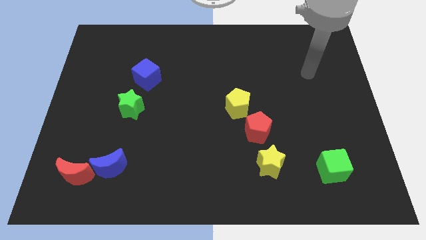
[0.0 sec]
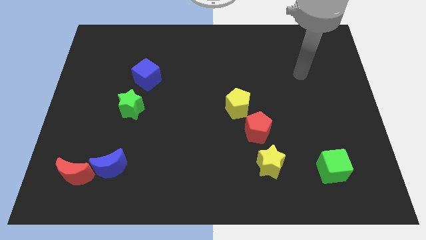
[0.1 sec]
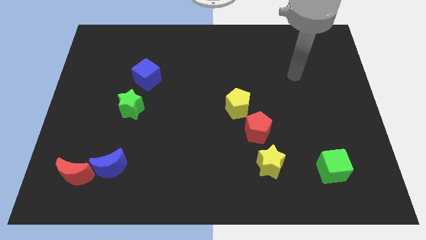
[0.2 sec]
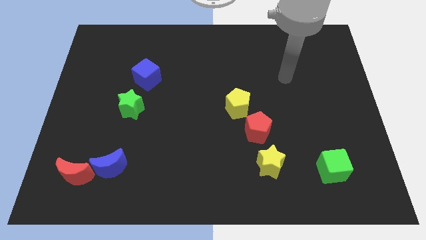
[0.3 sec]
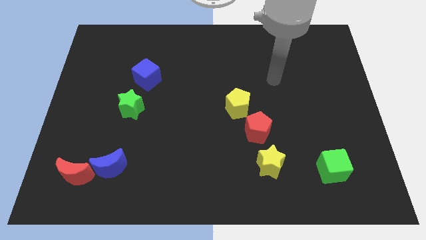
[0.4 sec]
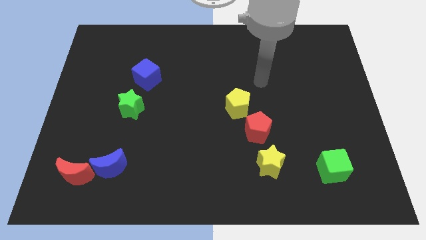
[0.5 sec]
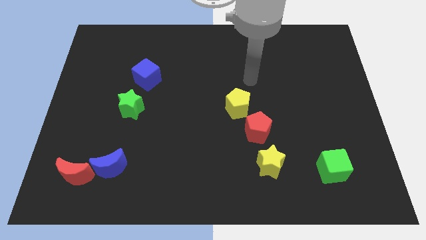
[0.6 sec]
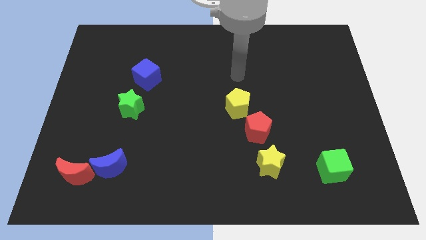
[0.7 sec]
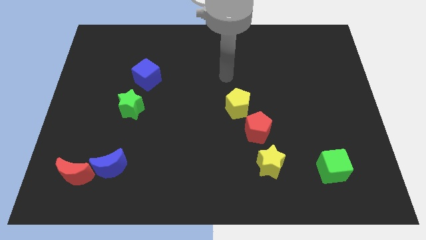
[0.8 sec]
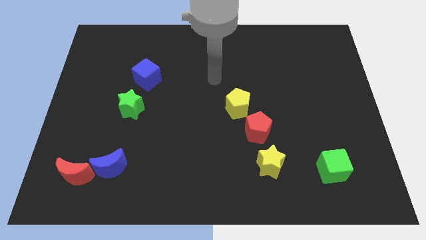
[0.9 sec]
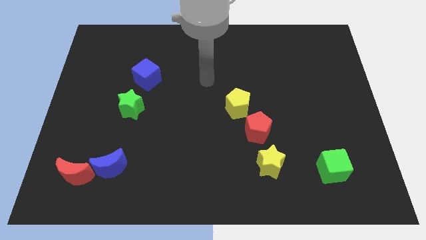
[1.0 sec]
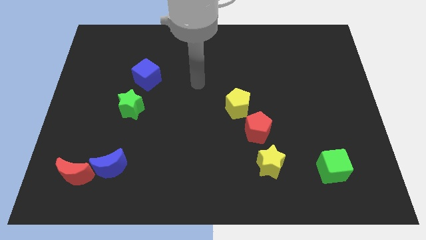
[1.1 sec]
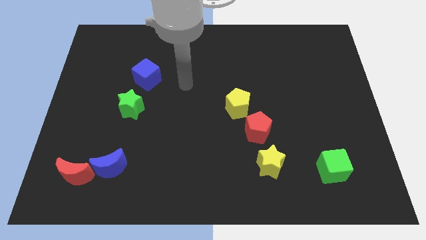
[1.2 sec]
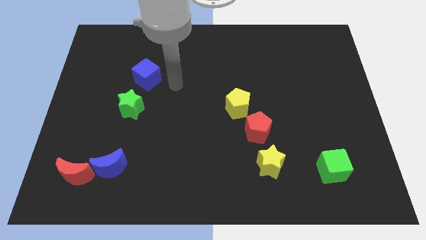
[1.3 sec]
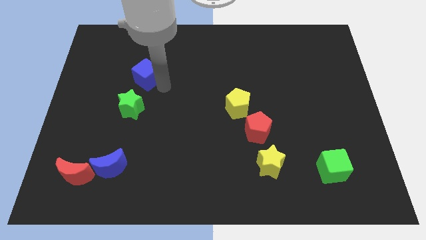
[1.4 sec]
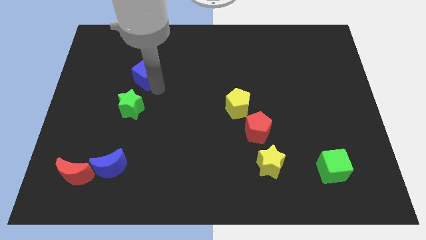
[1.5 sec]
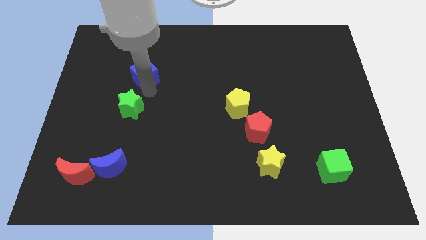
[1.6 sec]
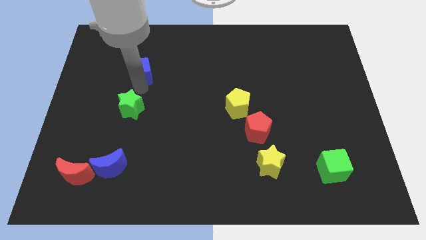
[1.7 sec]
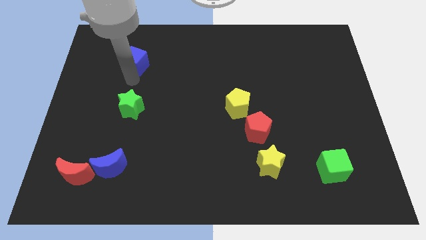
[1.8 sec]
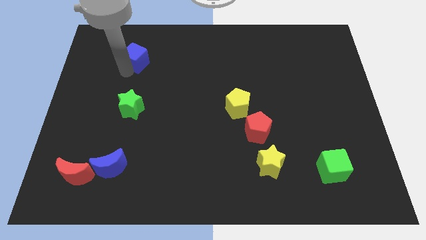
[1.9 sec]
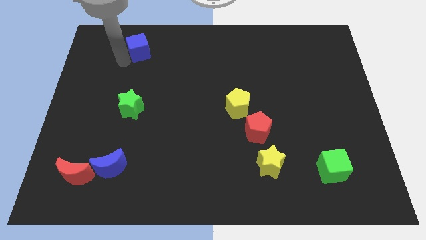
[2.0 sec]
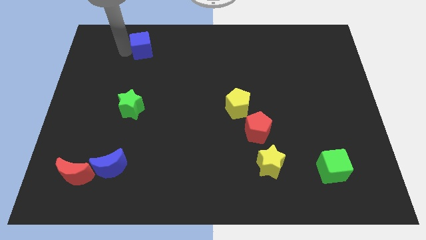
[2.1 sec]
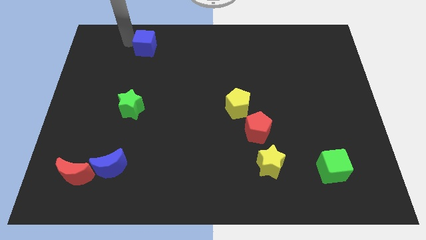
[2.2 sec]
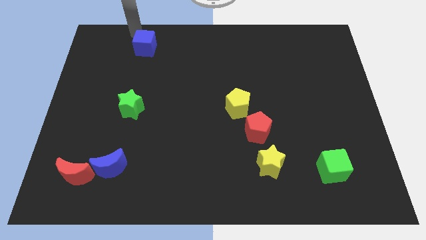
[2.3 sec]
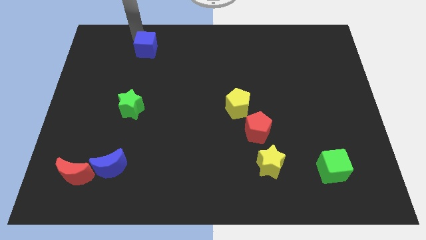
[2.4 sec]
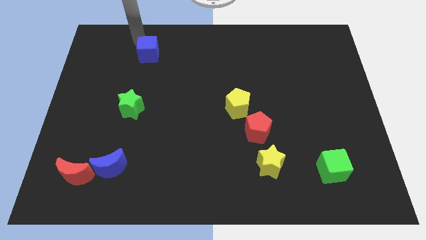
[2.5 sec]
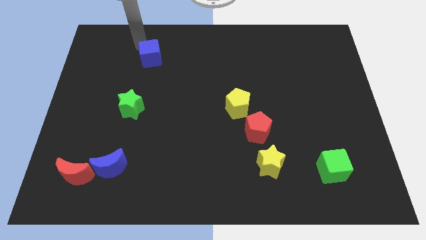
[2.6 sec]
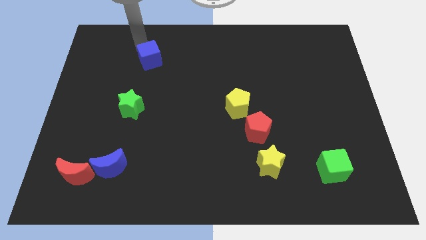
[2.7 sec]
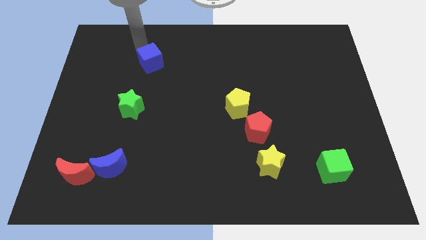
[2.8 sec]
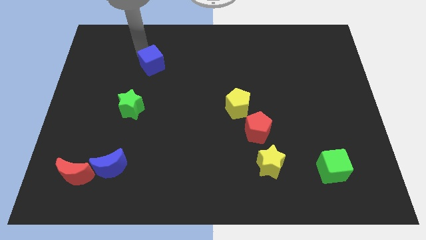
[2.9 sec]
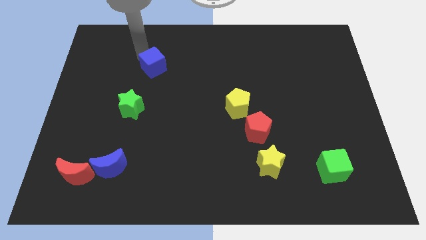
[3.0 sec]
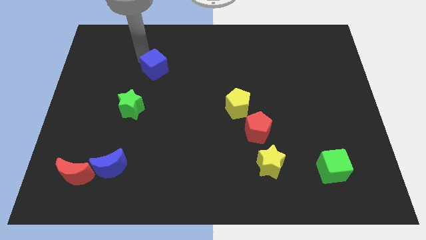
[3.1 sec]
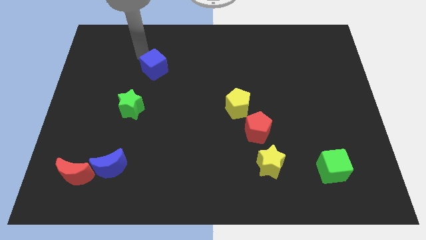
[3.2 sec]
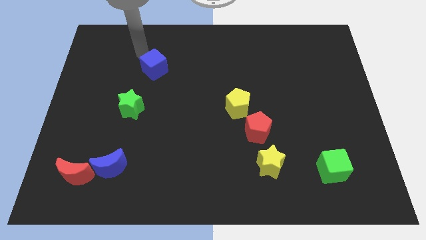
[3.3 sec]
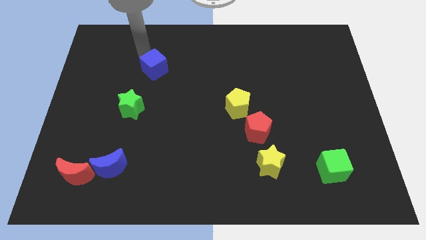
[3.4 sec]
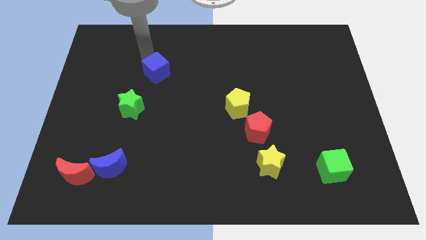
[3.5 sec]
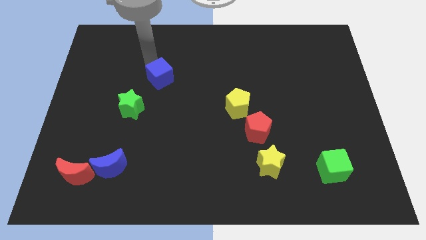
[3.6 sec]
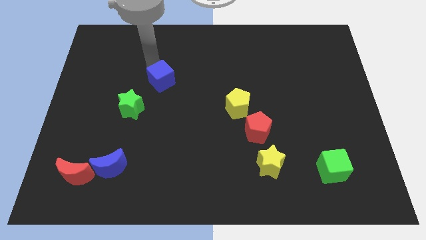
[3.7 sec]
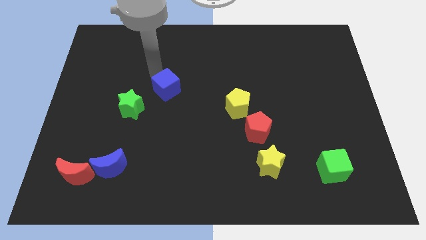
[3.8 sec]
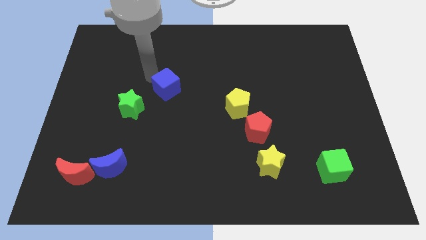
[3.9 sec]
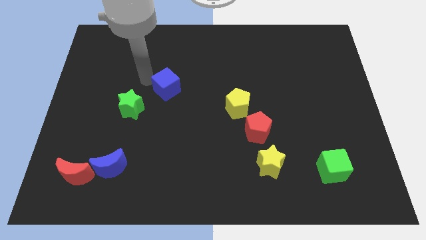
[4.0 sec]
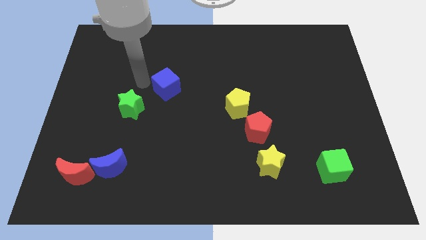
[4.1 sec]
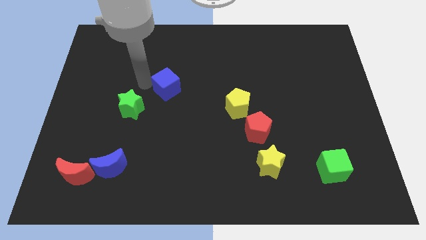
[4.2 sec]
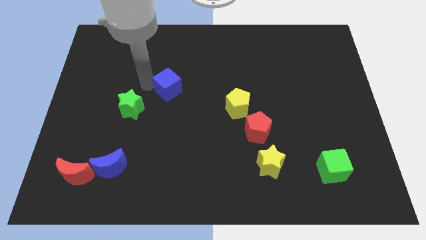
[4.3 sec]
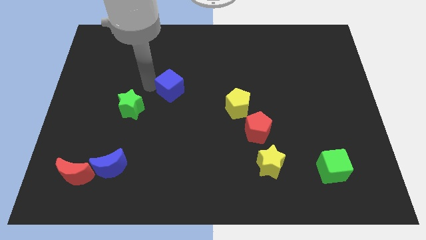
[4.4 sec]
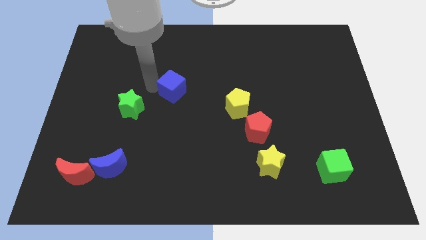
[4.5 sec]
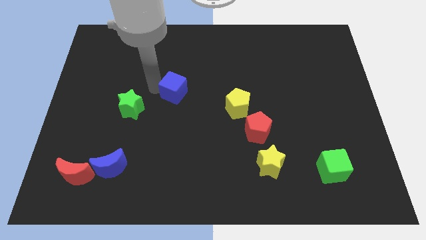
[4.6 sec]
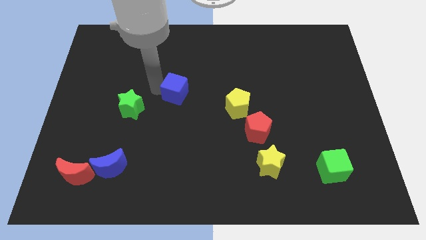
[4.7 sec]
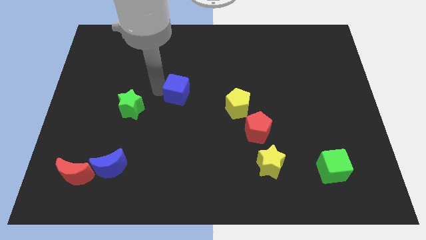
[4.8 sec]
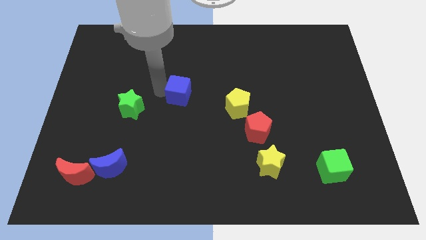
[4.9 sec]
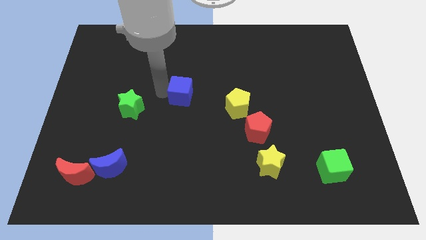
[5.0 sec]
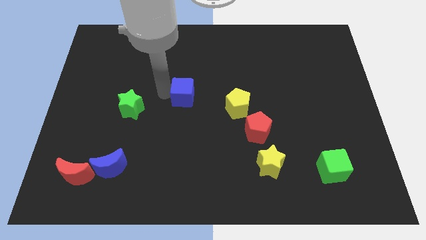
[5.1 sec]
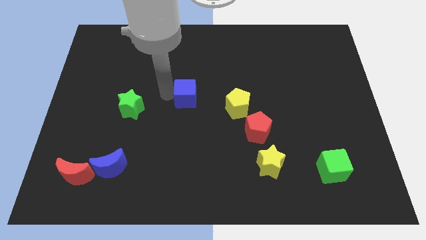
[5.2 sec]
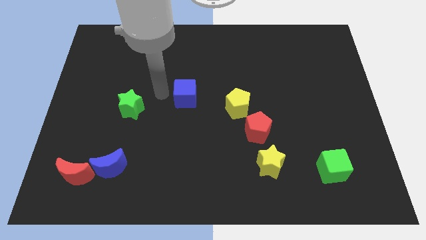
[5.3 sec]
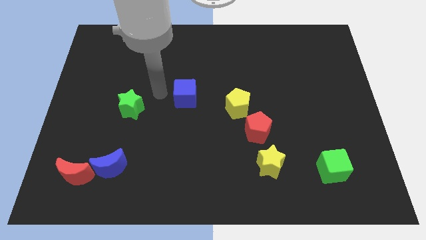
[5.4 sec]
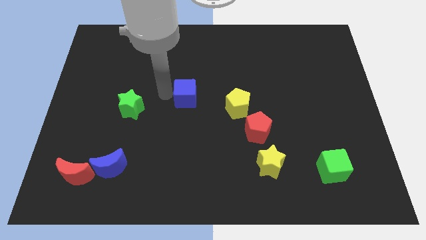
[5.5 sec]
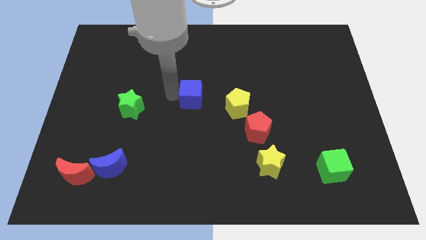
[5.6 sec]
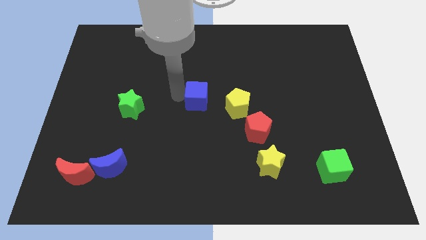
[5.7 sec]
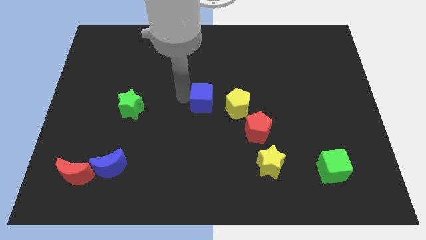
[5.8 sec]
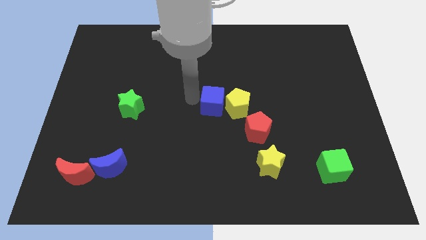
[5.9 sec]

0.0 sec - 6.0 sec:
slide the blue cube to the yellow pentagon

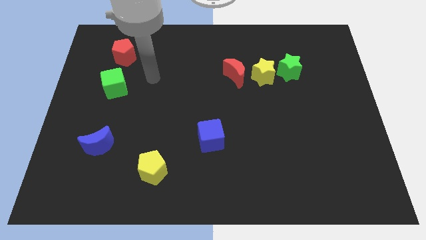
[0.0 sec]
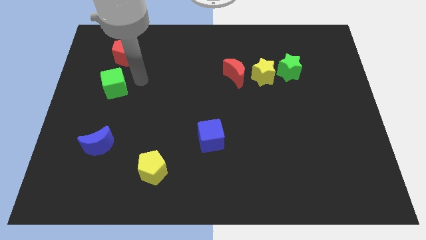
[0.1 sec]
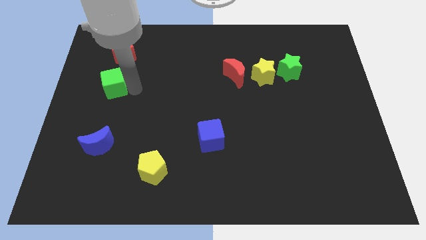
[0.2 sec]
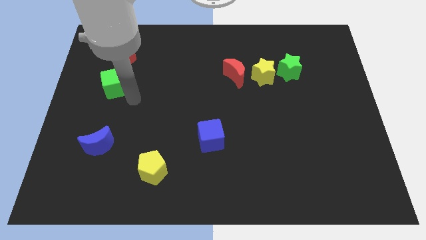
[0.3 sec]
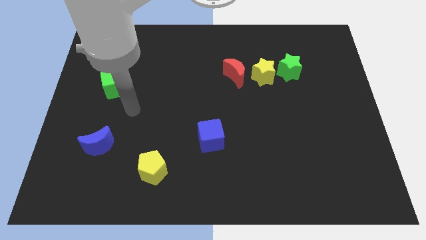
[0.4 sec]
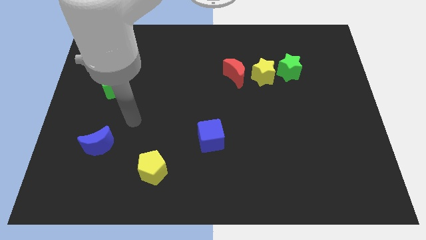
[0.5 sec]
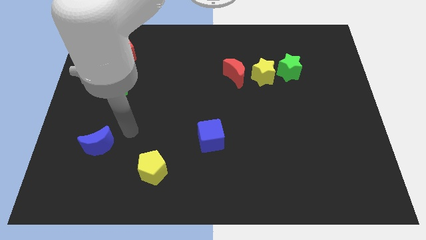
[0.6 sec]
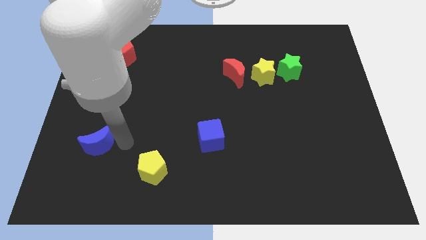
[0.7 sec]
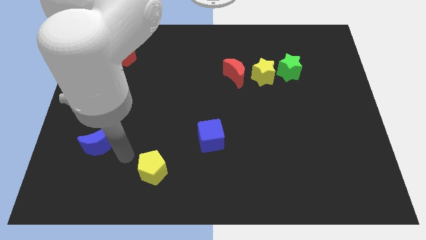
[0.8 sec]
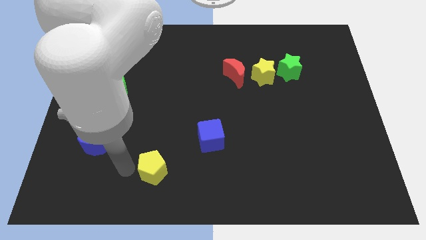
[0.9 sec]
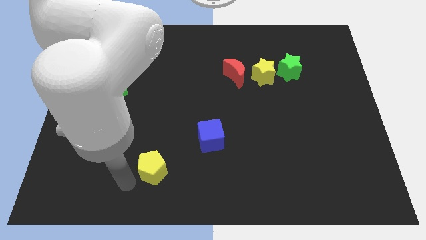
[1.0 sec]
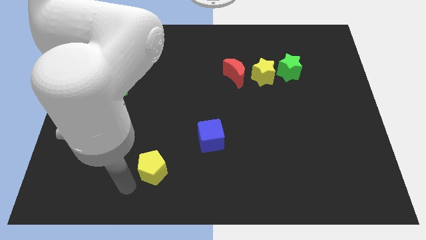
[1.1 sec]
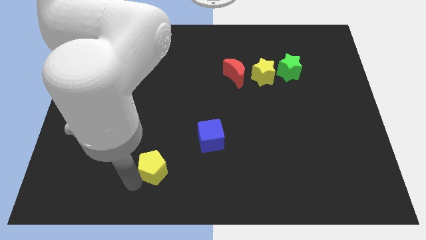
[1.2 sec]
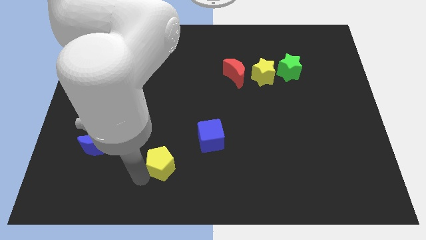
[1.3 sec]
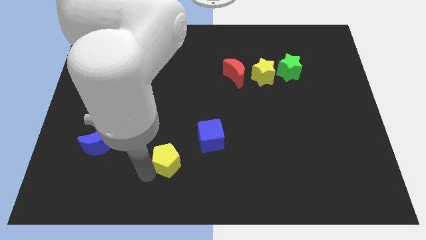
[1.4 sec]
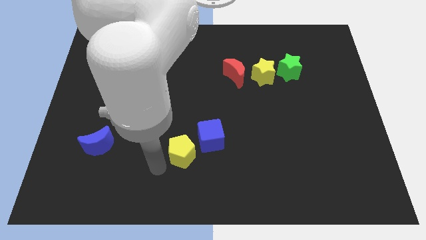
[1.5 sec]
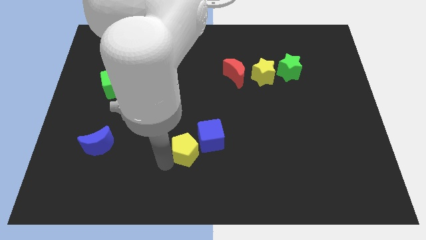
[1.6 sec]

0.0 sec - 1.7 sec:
slide the yellow pentagon towards the blue cube
